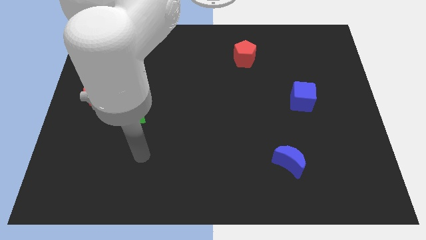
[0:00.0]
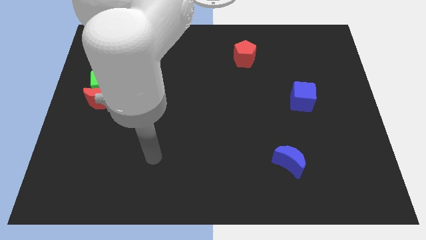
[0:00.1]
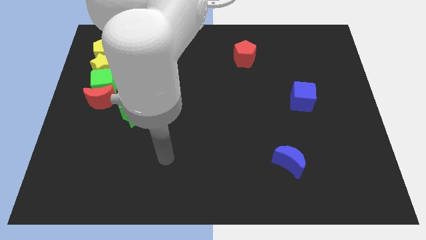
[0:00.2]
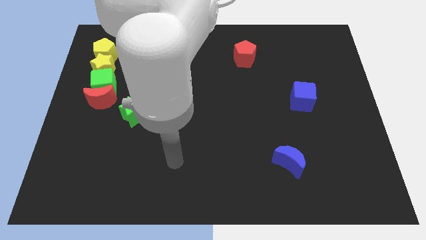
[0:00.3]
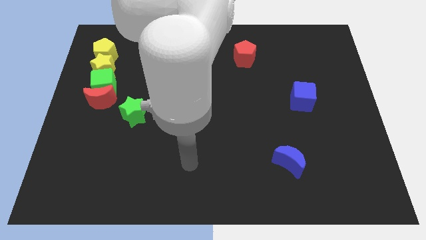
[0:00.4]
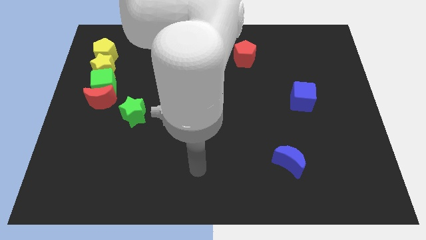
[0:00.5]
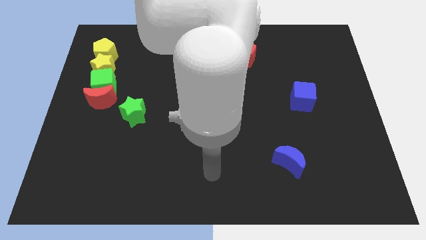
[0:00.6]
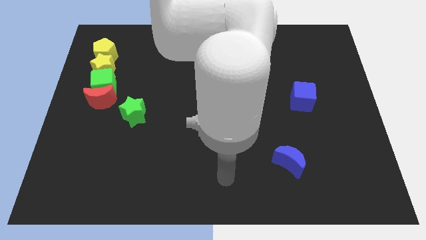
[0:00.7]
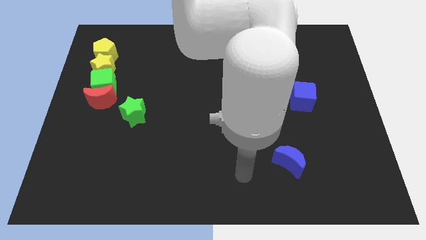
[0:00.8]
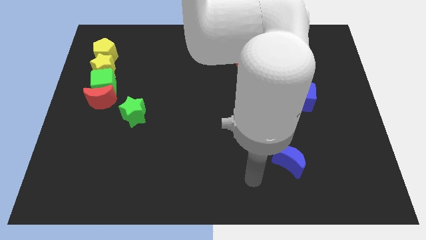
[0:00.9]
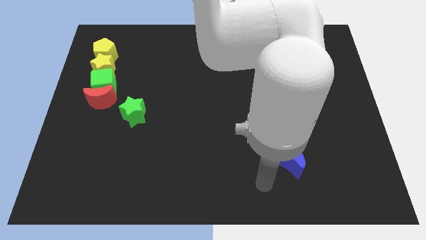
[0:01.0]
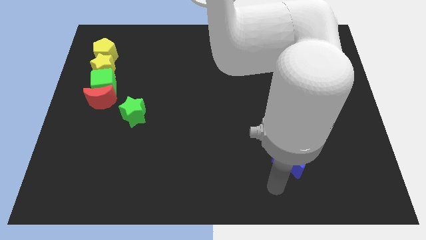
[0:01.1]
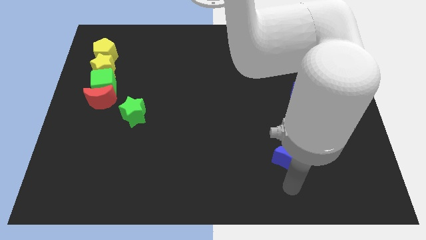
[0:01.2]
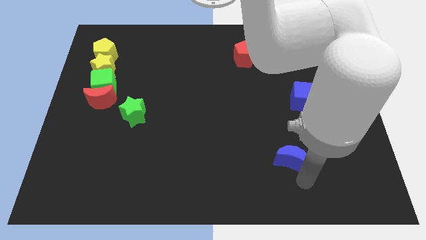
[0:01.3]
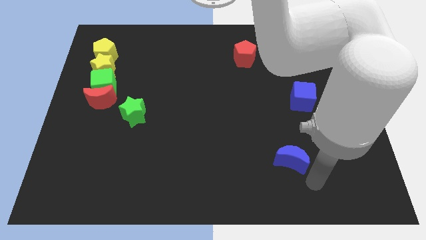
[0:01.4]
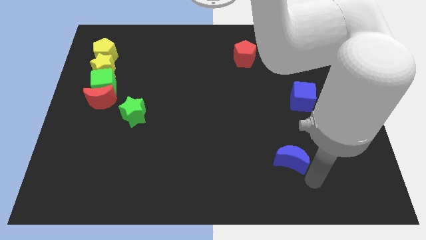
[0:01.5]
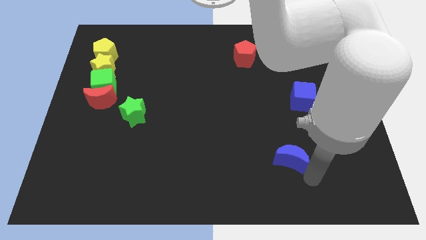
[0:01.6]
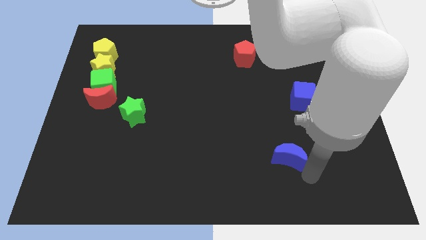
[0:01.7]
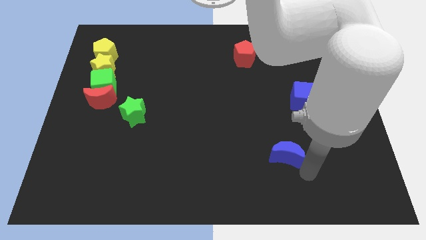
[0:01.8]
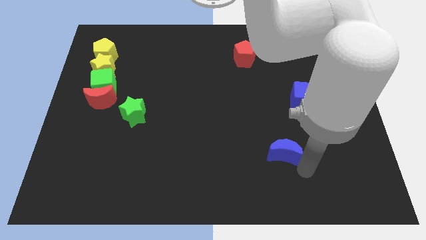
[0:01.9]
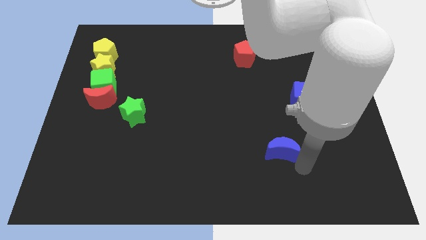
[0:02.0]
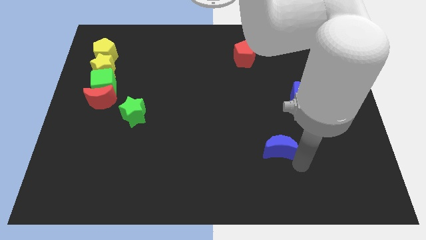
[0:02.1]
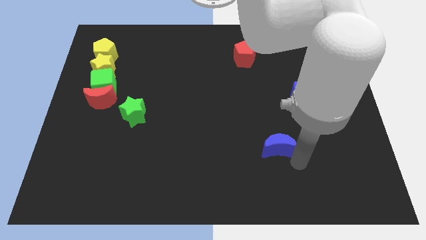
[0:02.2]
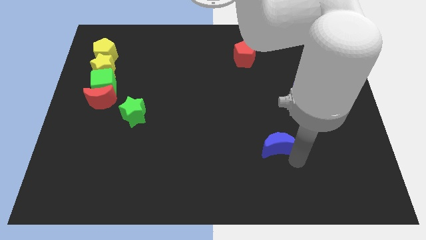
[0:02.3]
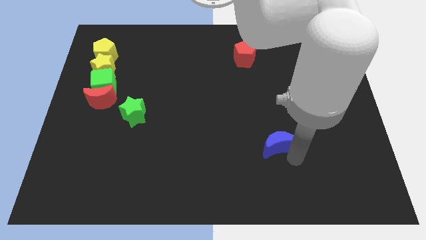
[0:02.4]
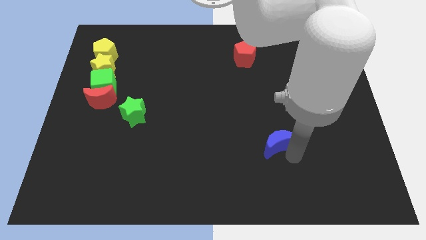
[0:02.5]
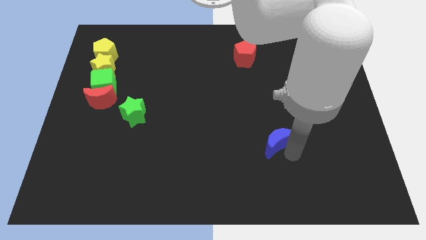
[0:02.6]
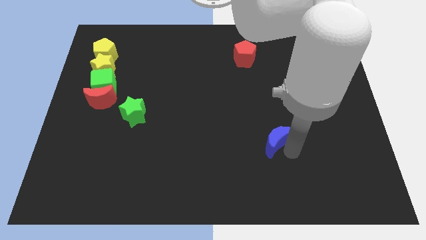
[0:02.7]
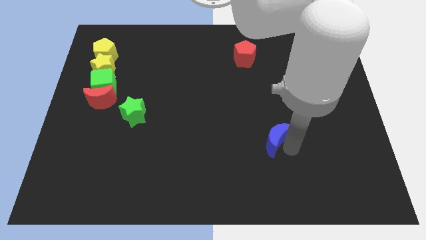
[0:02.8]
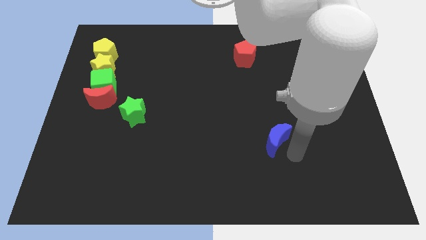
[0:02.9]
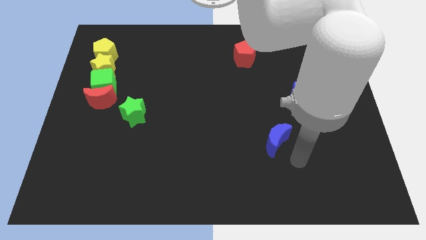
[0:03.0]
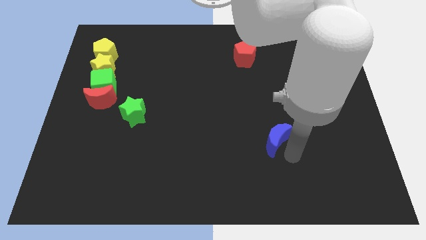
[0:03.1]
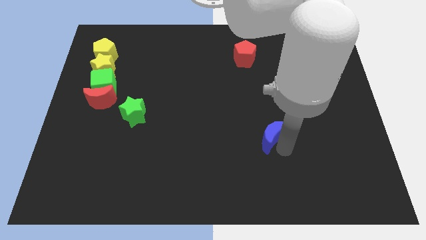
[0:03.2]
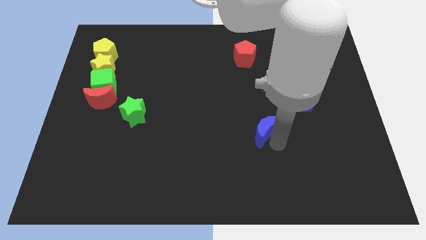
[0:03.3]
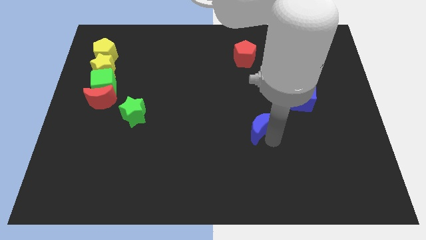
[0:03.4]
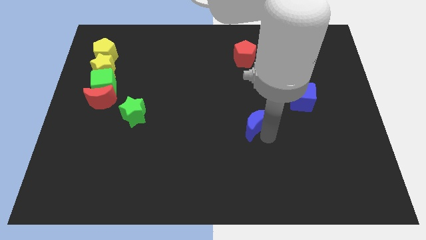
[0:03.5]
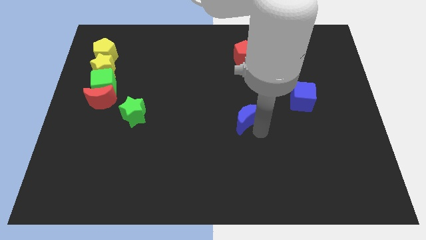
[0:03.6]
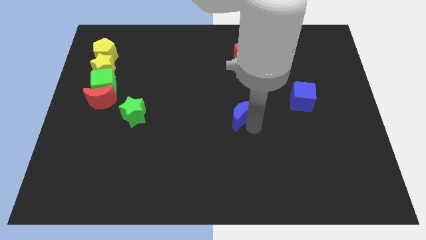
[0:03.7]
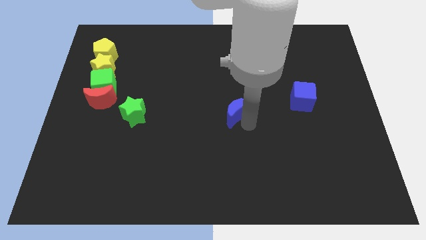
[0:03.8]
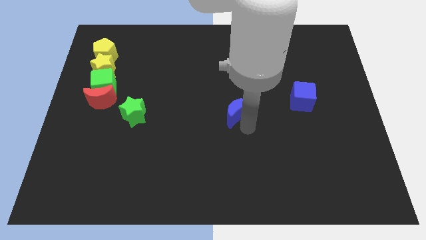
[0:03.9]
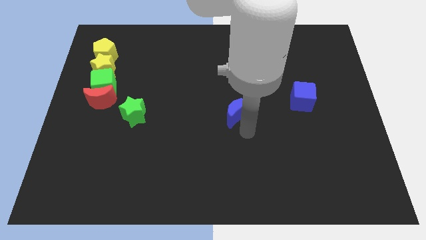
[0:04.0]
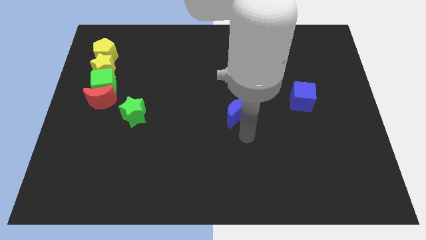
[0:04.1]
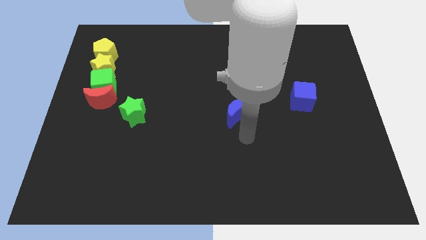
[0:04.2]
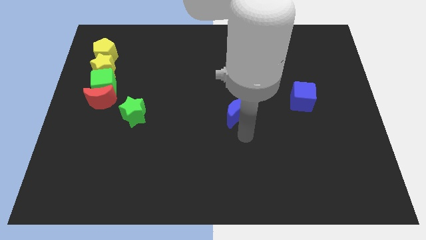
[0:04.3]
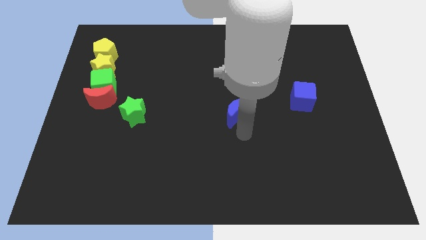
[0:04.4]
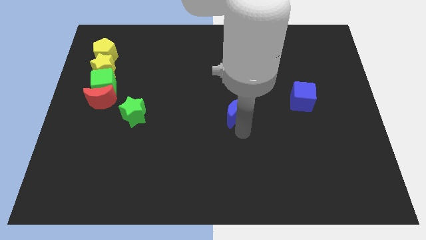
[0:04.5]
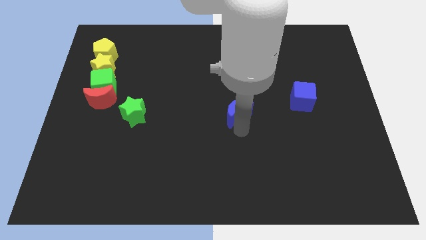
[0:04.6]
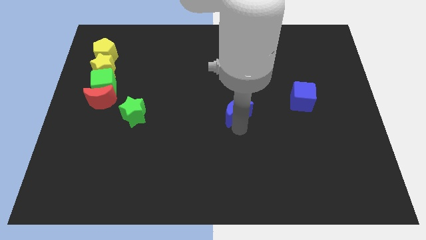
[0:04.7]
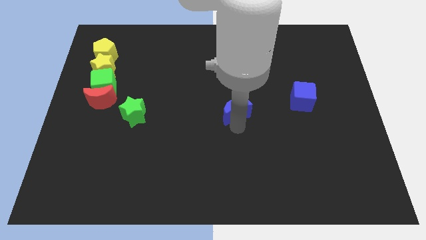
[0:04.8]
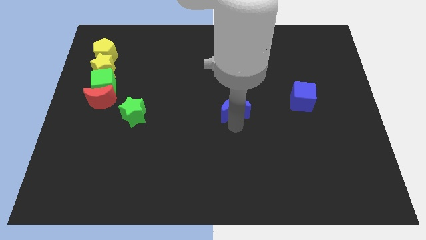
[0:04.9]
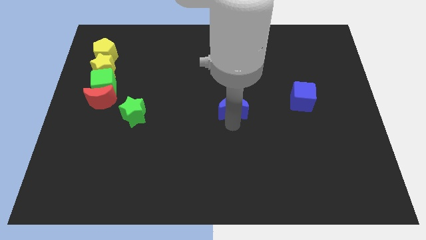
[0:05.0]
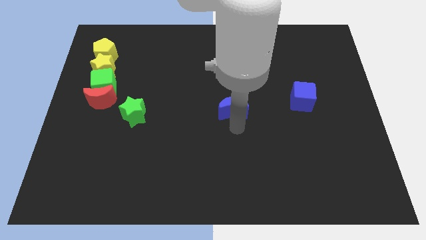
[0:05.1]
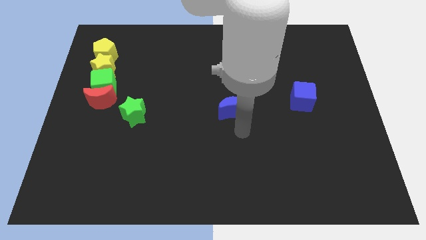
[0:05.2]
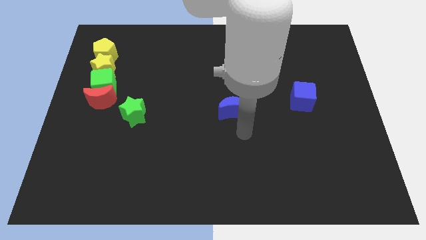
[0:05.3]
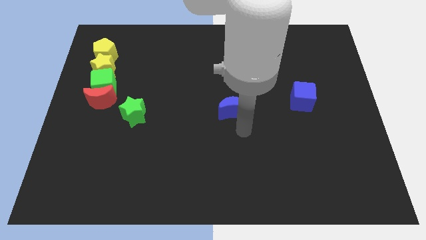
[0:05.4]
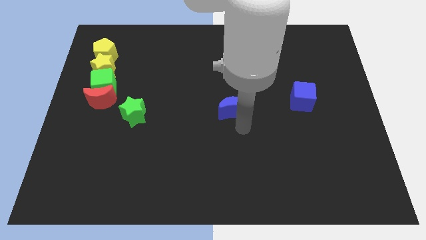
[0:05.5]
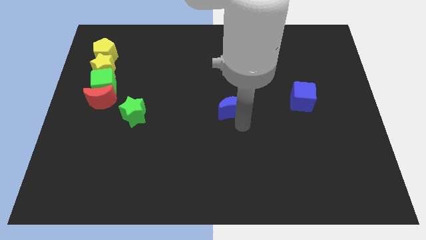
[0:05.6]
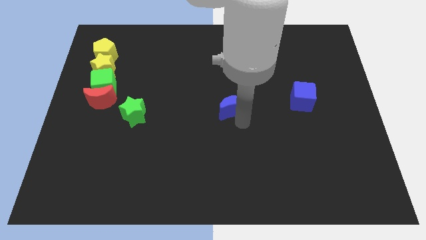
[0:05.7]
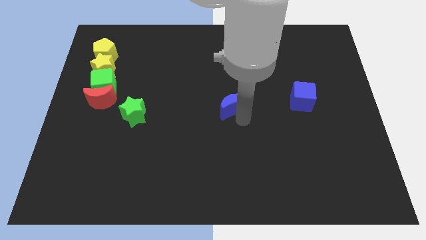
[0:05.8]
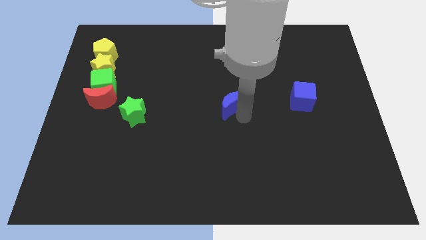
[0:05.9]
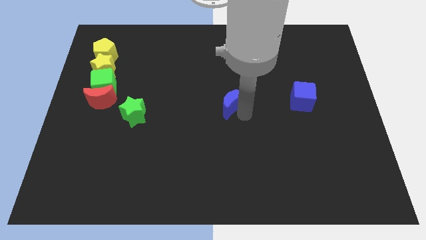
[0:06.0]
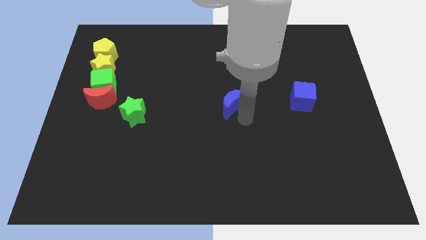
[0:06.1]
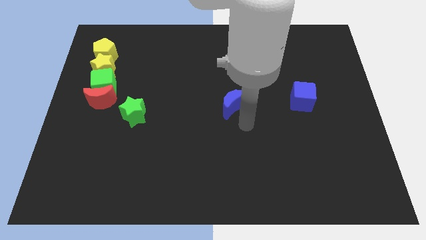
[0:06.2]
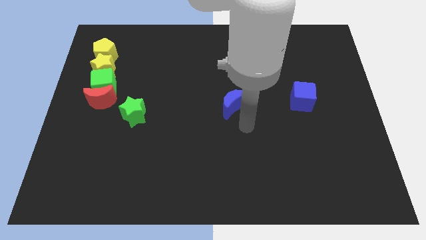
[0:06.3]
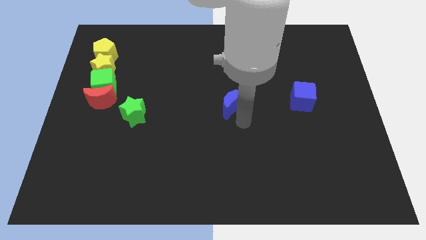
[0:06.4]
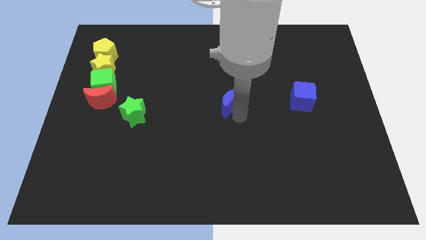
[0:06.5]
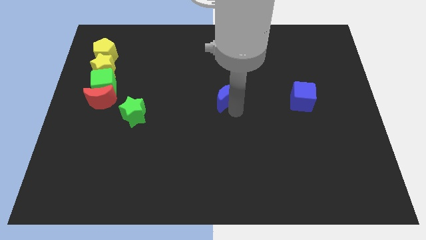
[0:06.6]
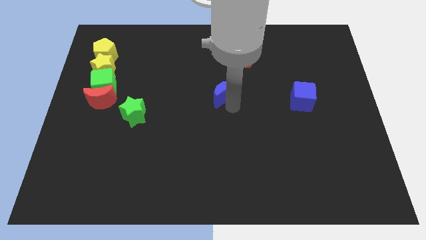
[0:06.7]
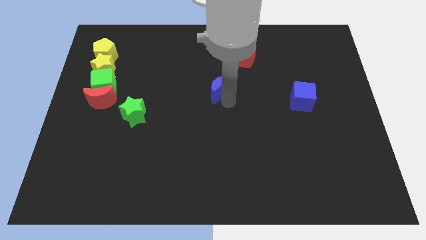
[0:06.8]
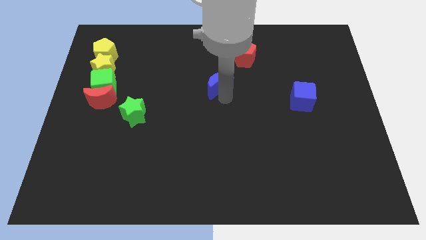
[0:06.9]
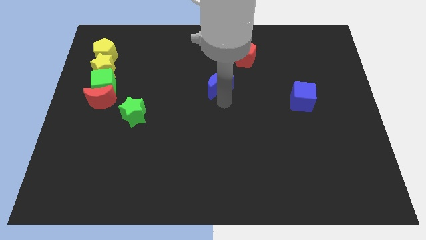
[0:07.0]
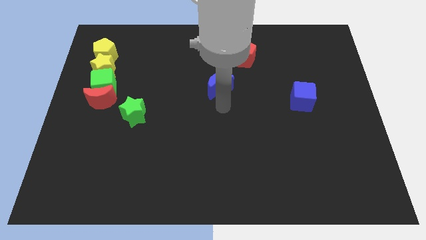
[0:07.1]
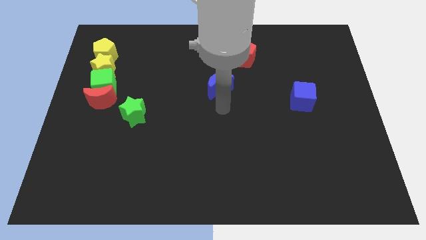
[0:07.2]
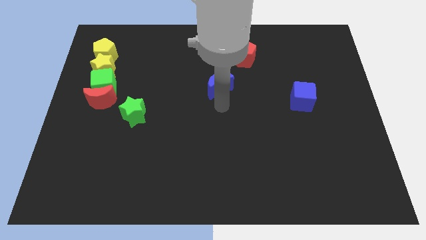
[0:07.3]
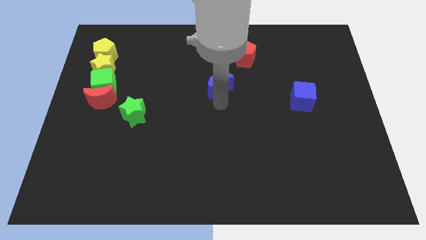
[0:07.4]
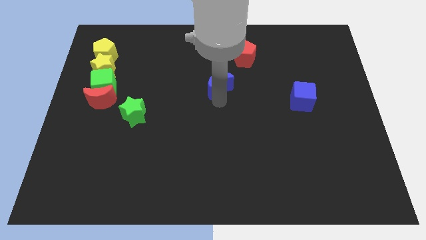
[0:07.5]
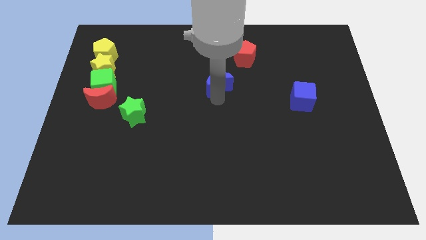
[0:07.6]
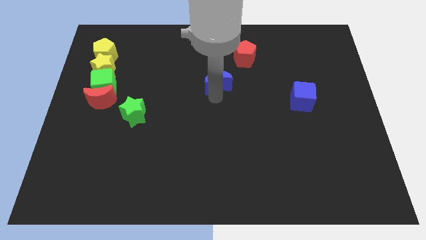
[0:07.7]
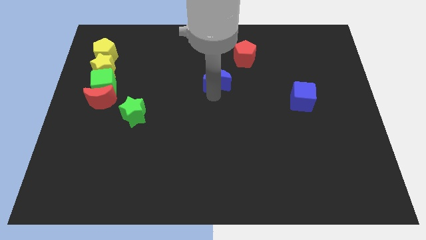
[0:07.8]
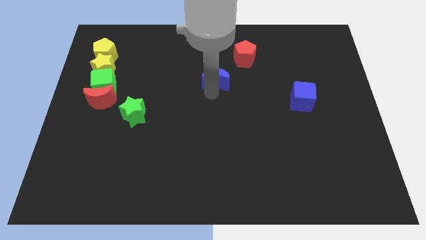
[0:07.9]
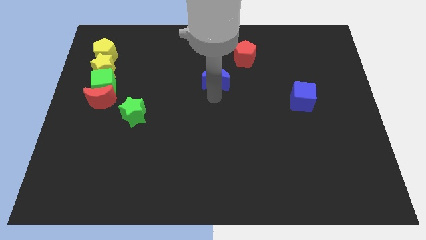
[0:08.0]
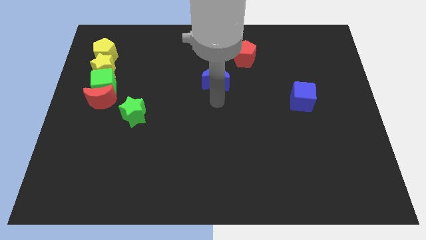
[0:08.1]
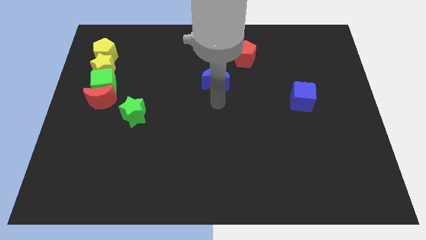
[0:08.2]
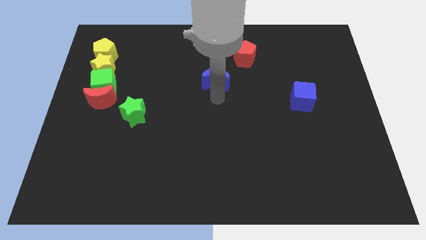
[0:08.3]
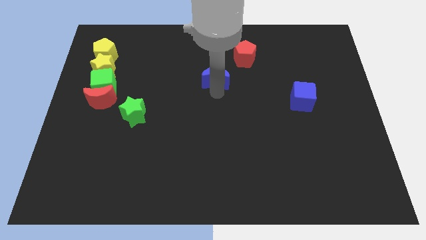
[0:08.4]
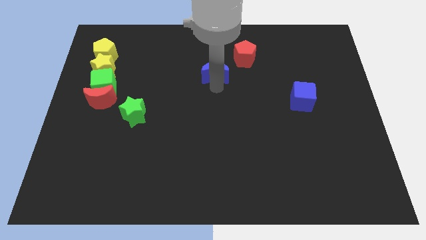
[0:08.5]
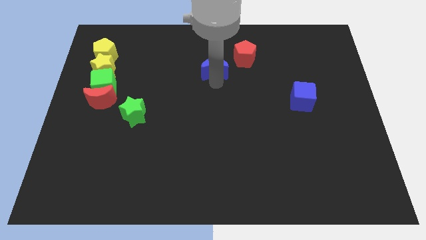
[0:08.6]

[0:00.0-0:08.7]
slide the blue moon to the left side of the red pentagon
